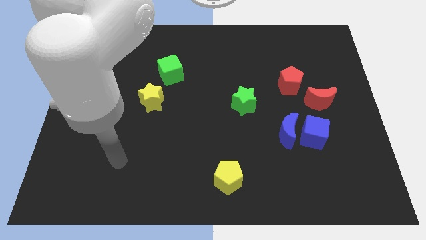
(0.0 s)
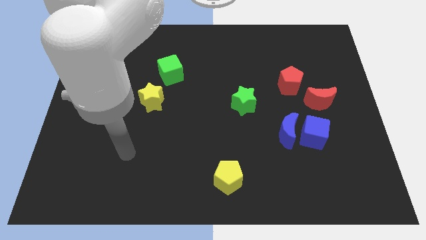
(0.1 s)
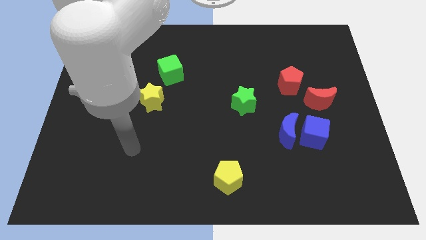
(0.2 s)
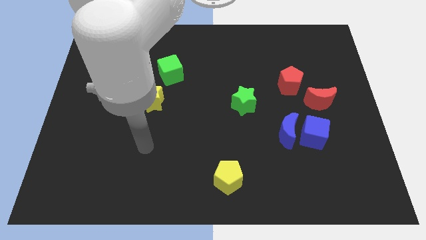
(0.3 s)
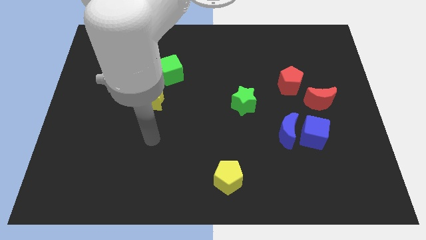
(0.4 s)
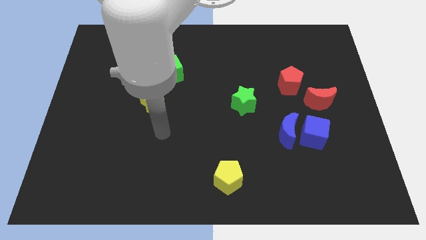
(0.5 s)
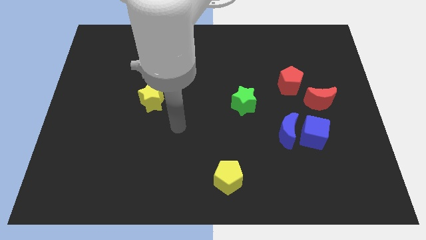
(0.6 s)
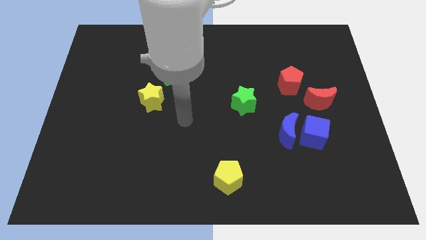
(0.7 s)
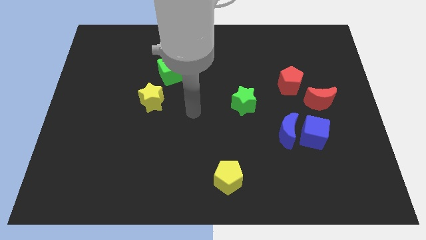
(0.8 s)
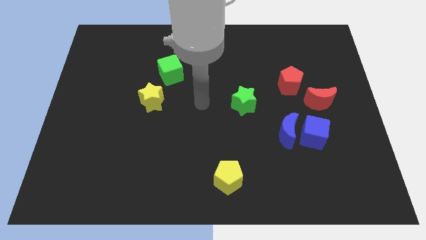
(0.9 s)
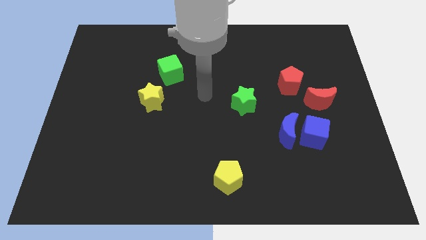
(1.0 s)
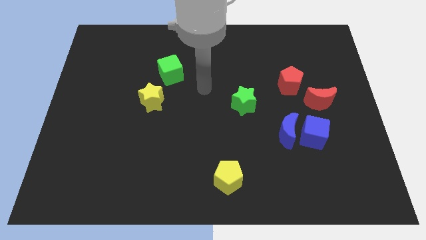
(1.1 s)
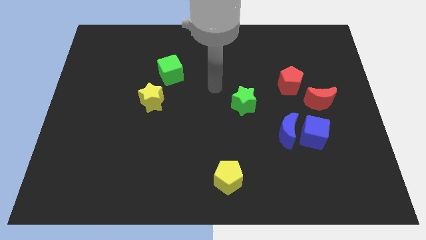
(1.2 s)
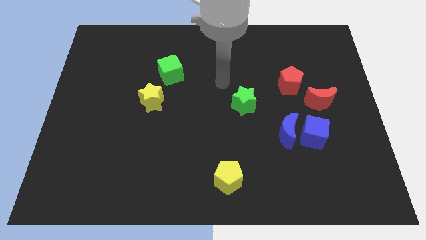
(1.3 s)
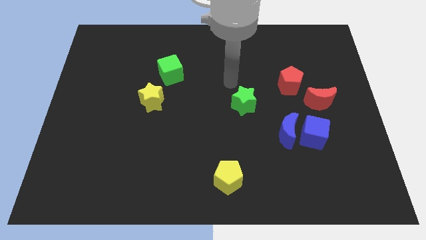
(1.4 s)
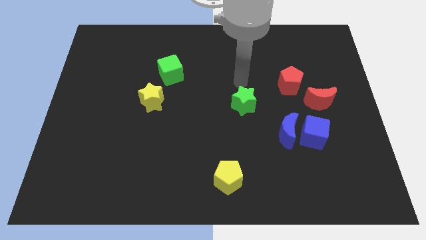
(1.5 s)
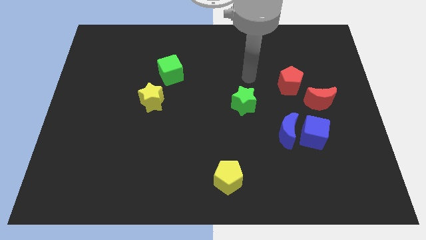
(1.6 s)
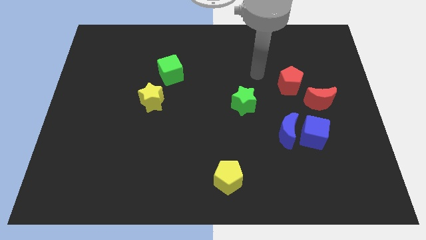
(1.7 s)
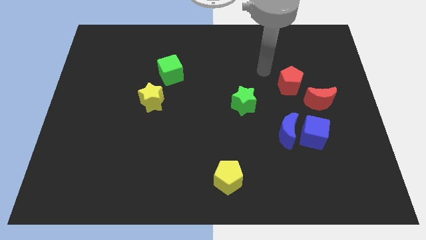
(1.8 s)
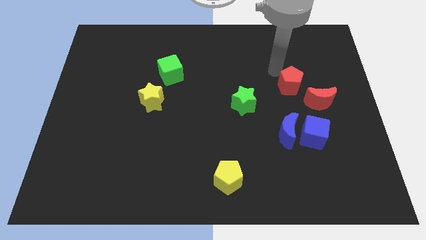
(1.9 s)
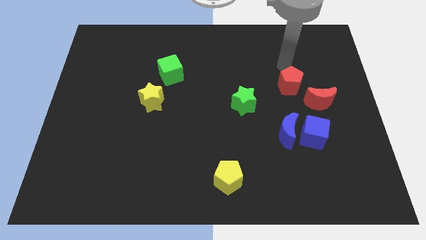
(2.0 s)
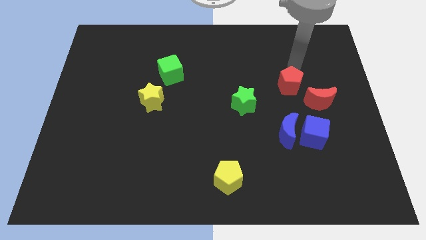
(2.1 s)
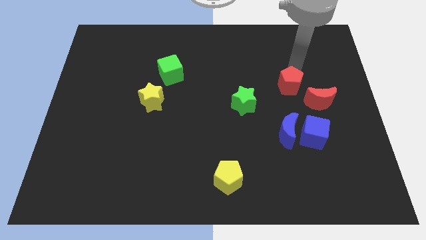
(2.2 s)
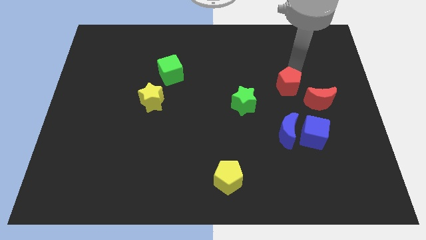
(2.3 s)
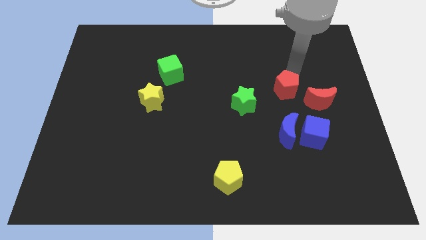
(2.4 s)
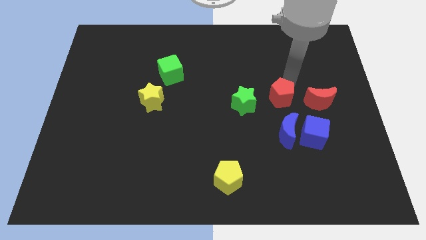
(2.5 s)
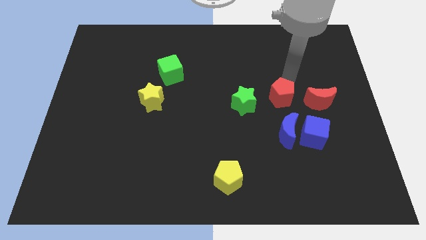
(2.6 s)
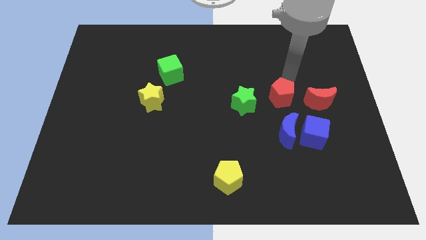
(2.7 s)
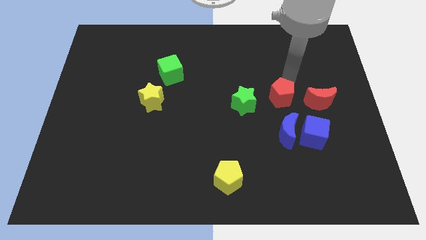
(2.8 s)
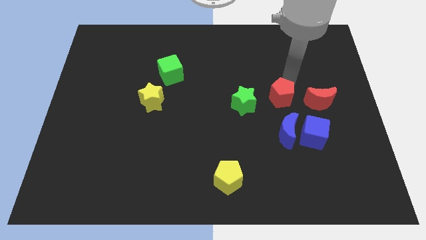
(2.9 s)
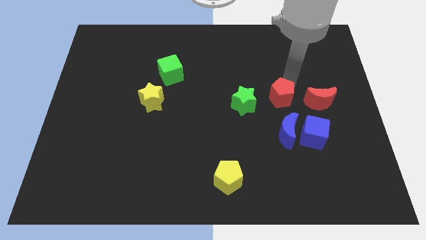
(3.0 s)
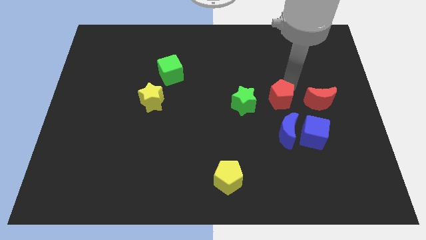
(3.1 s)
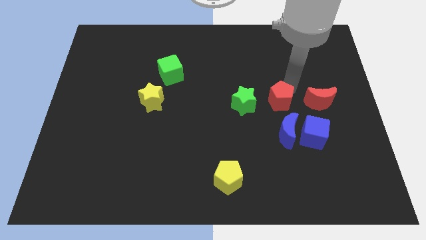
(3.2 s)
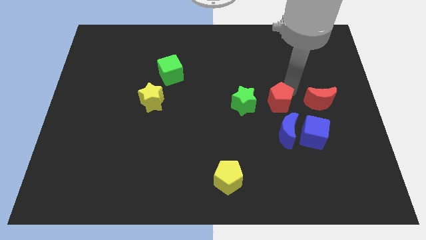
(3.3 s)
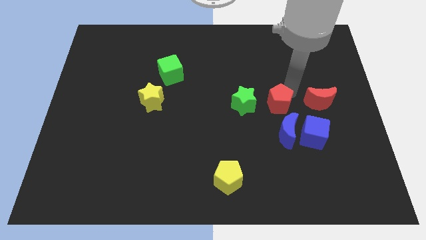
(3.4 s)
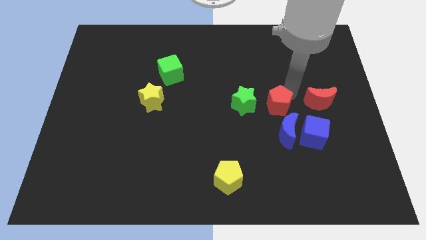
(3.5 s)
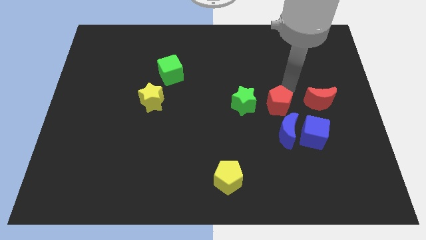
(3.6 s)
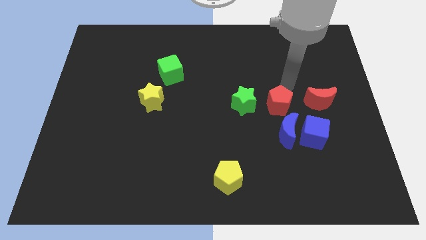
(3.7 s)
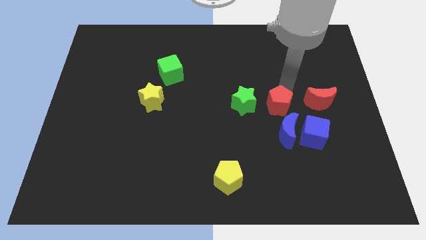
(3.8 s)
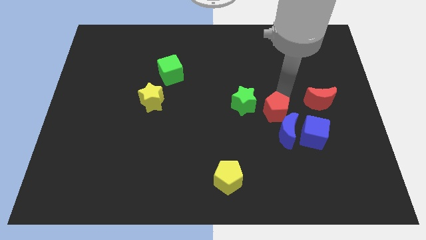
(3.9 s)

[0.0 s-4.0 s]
push the red pentagon downwards a little

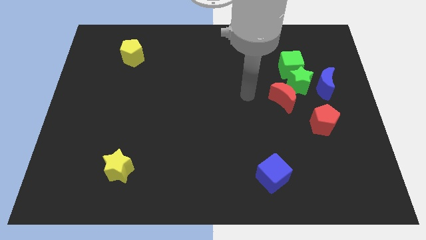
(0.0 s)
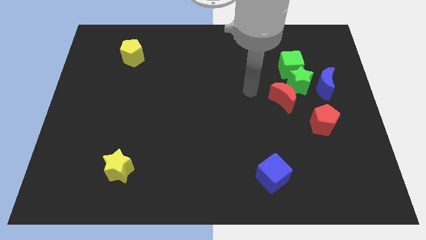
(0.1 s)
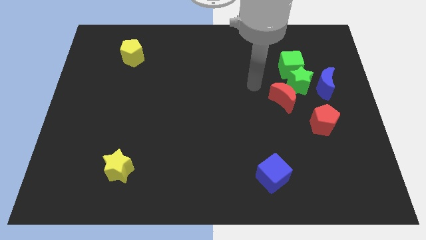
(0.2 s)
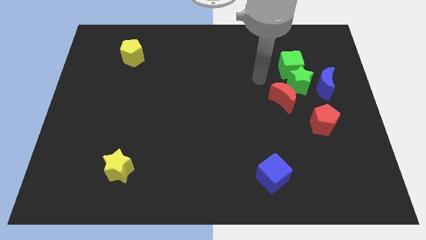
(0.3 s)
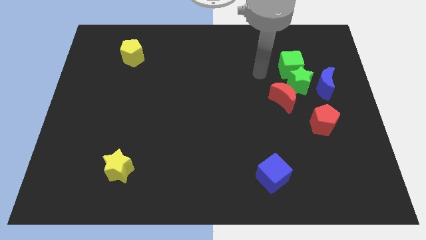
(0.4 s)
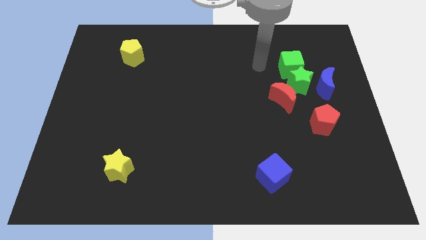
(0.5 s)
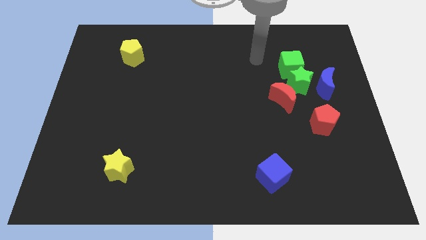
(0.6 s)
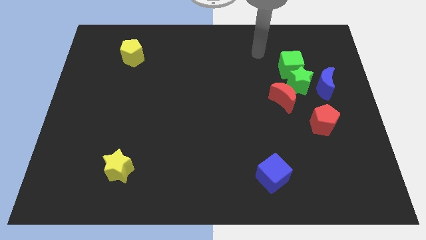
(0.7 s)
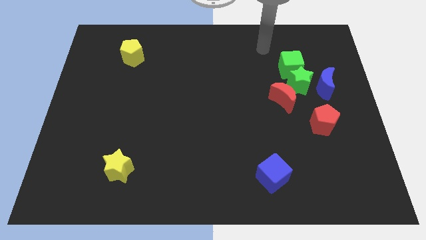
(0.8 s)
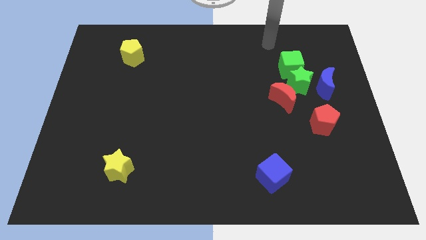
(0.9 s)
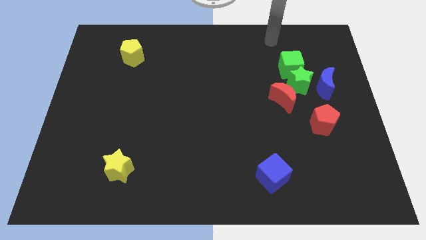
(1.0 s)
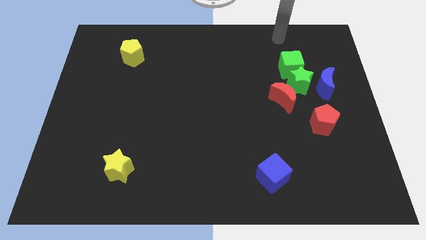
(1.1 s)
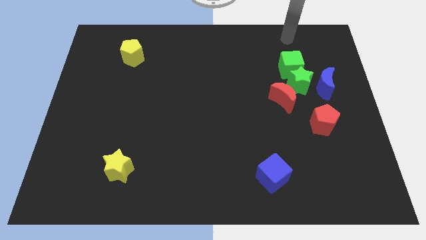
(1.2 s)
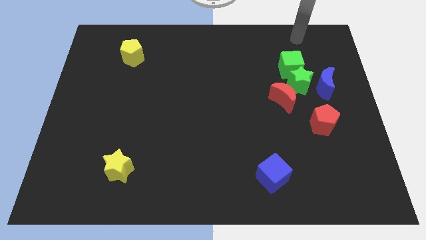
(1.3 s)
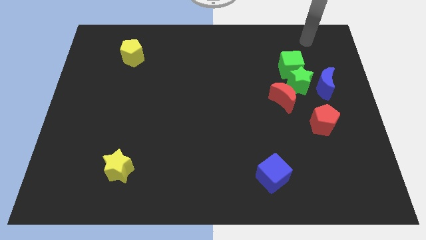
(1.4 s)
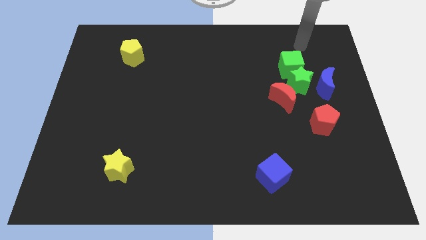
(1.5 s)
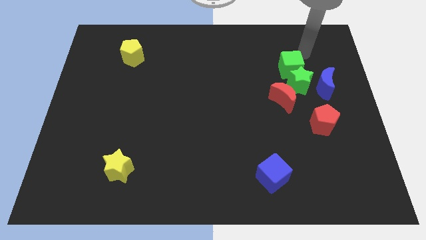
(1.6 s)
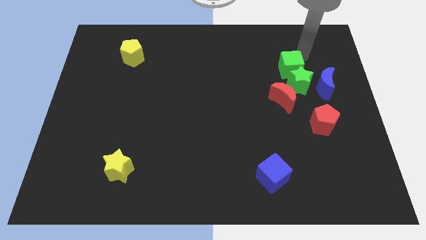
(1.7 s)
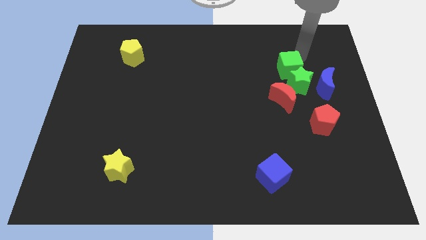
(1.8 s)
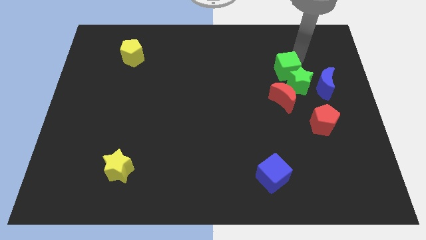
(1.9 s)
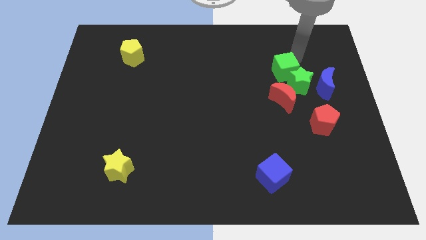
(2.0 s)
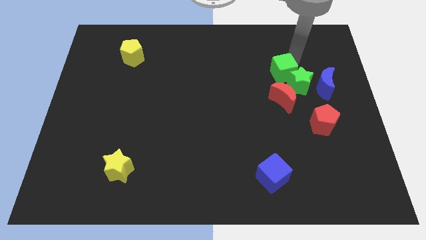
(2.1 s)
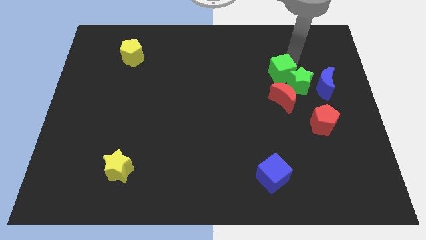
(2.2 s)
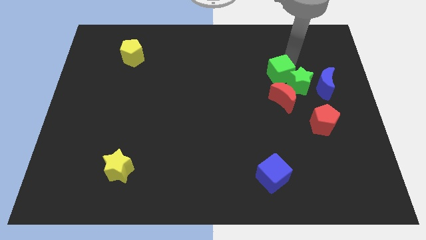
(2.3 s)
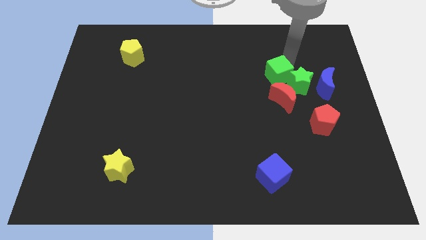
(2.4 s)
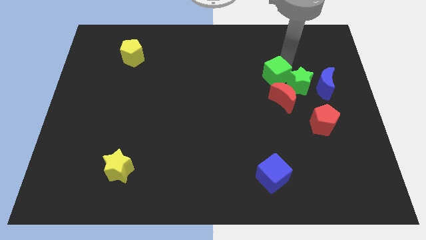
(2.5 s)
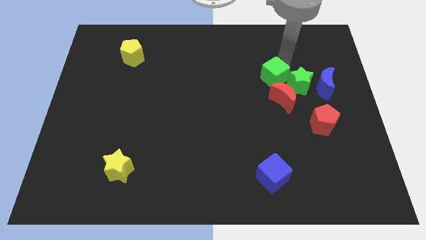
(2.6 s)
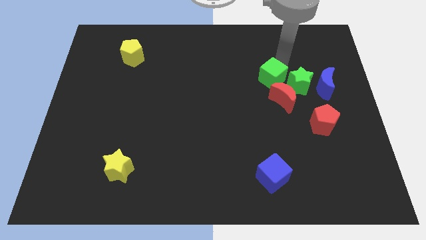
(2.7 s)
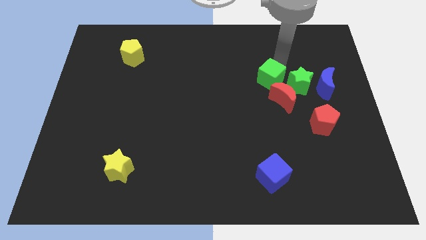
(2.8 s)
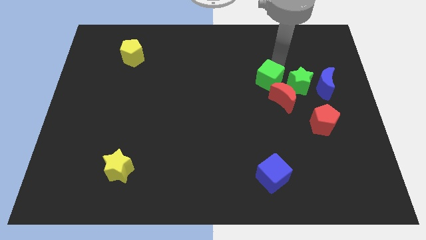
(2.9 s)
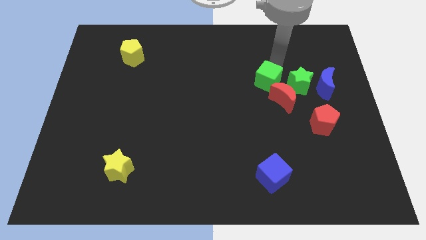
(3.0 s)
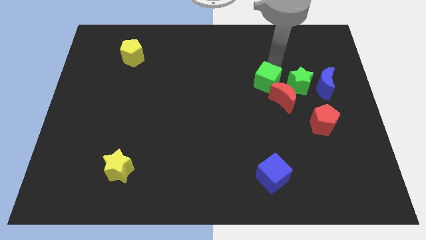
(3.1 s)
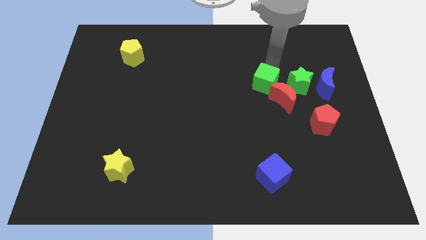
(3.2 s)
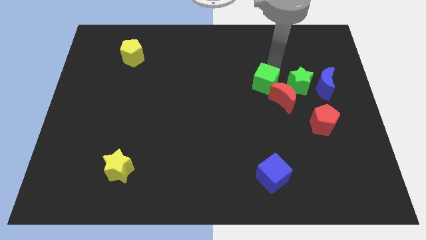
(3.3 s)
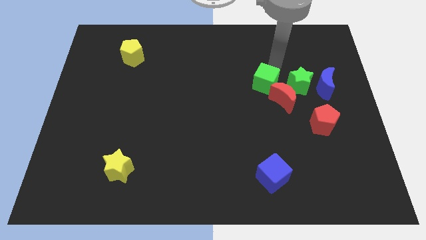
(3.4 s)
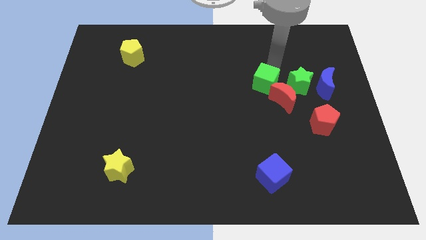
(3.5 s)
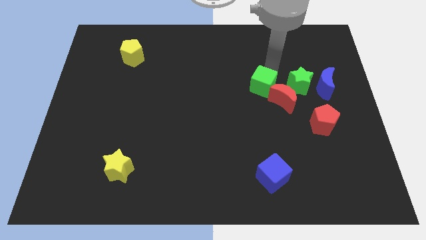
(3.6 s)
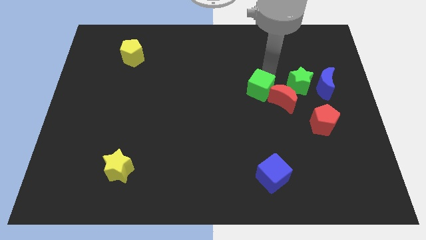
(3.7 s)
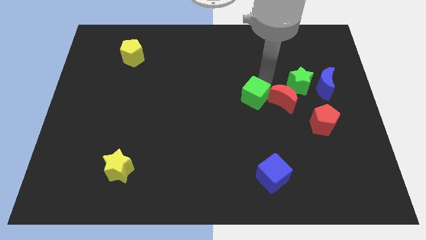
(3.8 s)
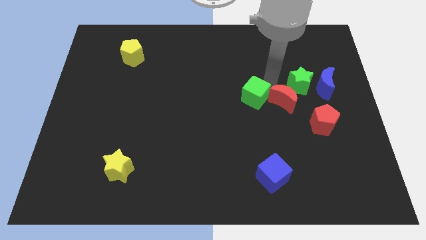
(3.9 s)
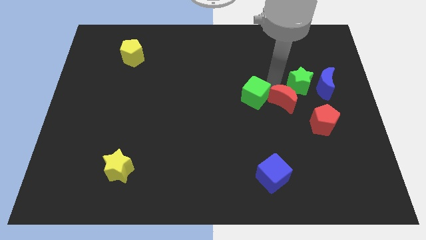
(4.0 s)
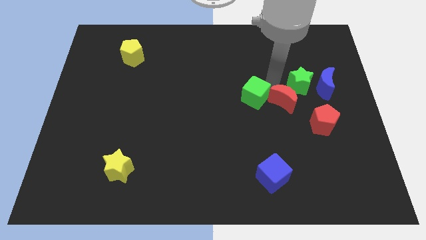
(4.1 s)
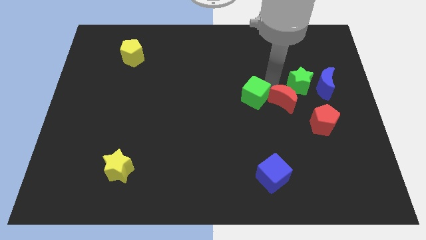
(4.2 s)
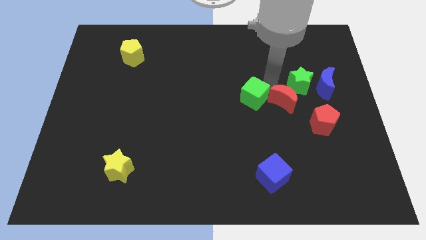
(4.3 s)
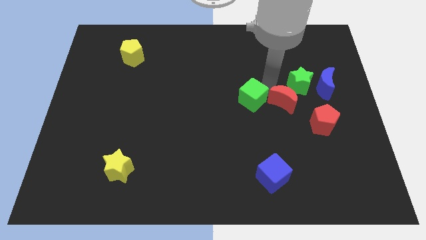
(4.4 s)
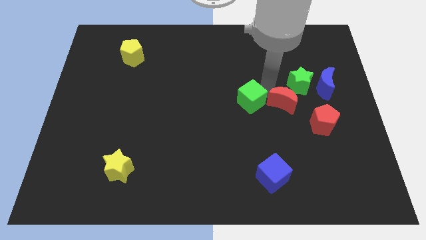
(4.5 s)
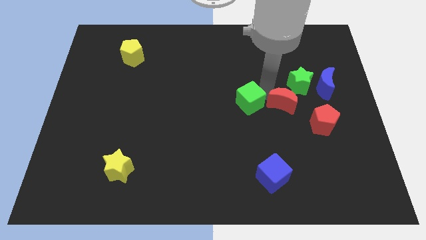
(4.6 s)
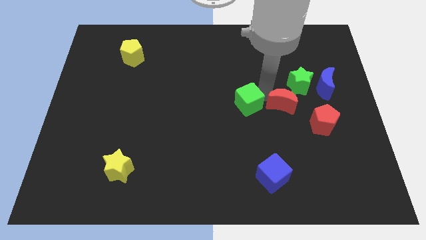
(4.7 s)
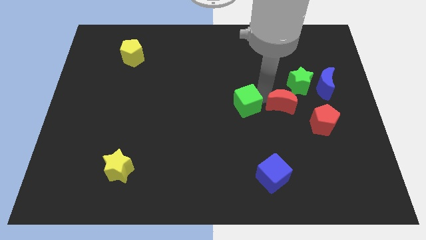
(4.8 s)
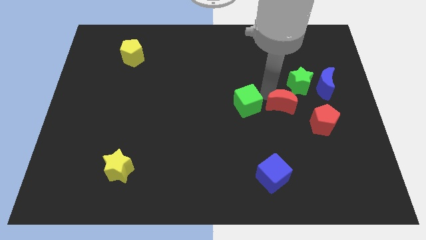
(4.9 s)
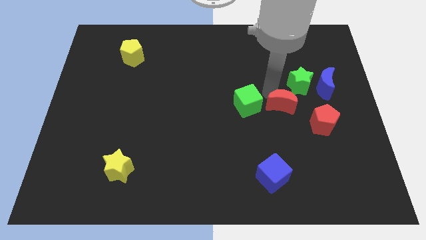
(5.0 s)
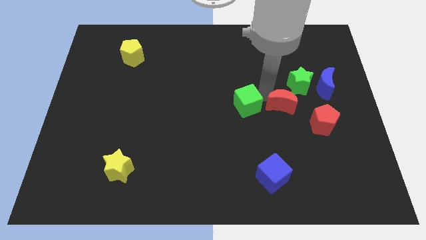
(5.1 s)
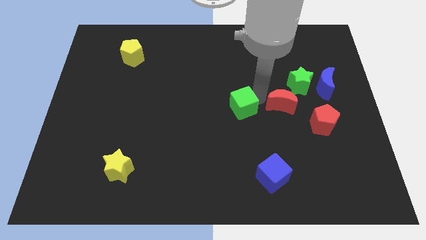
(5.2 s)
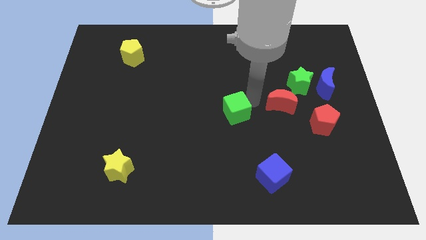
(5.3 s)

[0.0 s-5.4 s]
push the green cube down and then left
